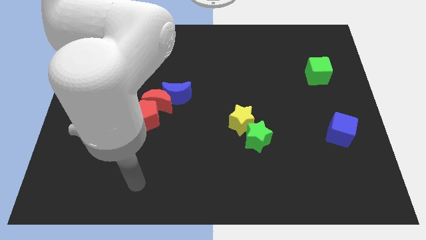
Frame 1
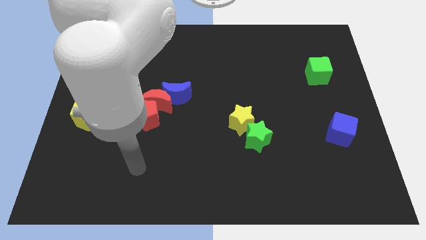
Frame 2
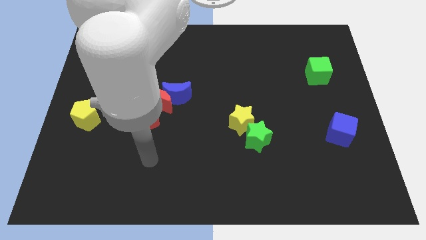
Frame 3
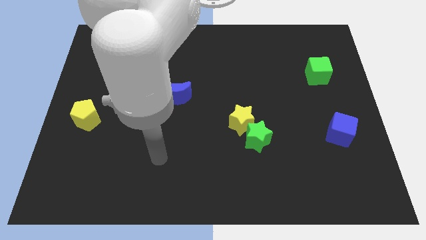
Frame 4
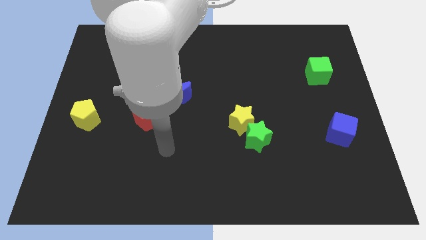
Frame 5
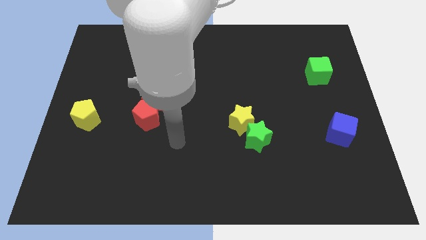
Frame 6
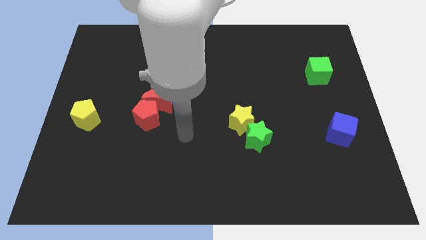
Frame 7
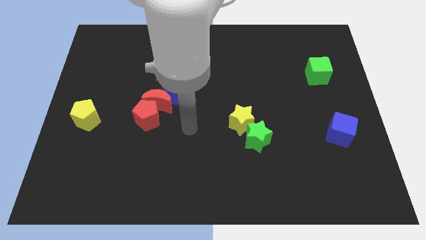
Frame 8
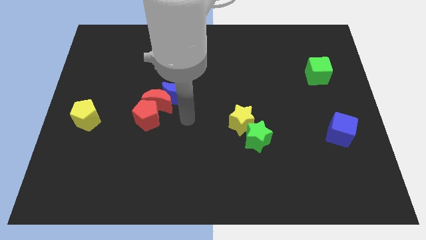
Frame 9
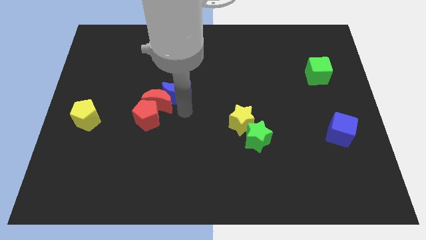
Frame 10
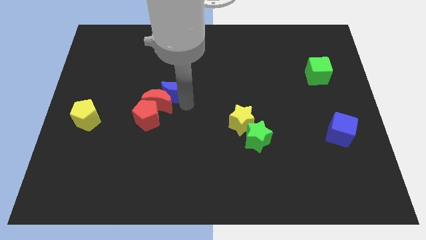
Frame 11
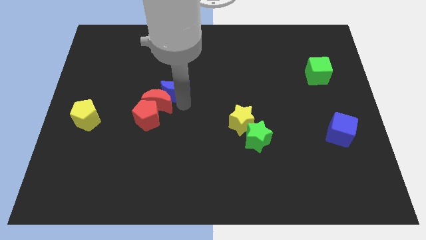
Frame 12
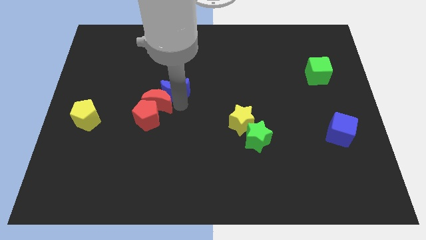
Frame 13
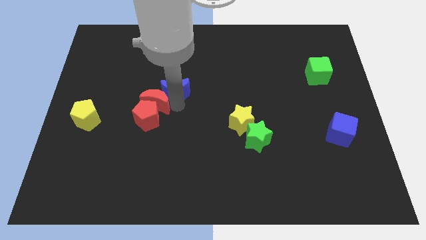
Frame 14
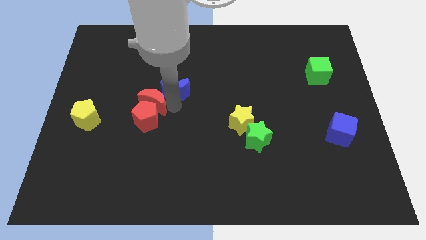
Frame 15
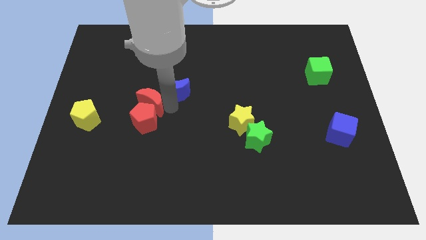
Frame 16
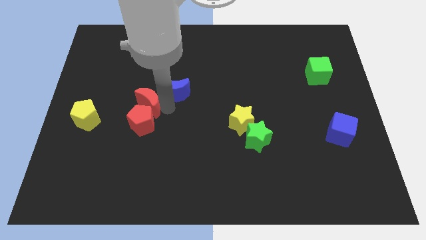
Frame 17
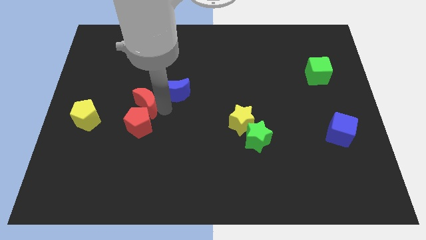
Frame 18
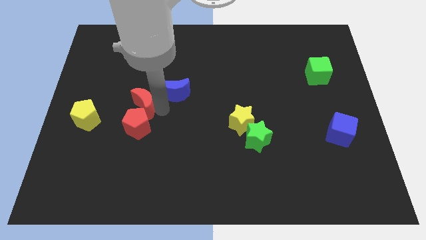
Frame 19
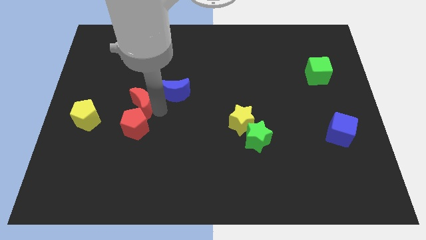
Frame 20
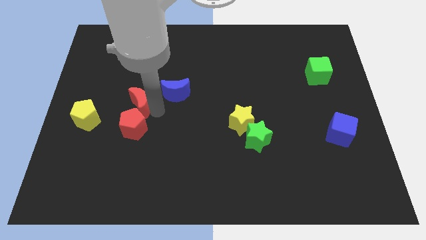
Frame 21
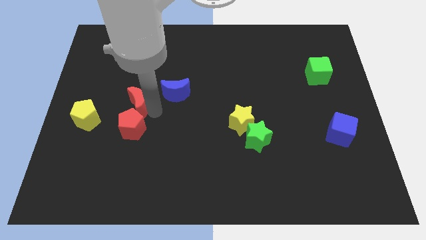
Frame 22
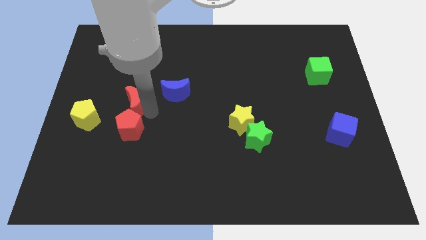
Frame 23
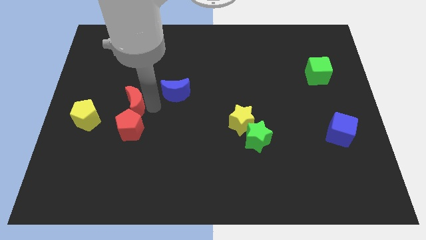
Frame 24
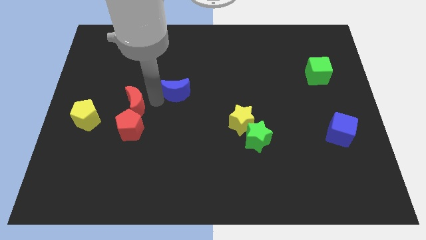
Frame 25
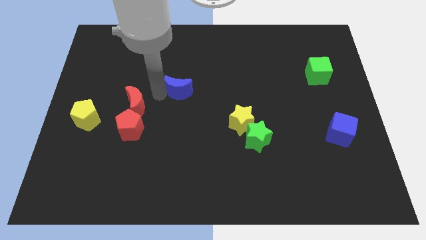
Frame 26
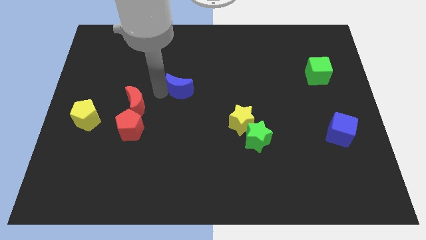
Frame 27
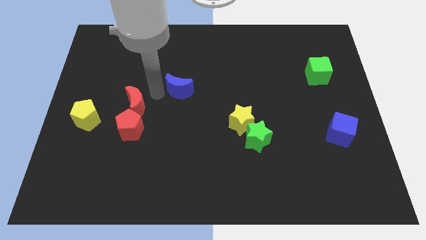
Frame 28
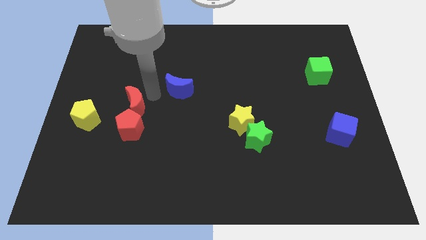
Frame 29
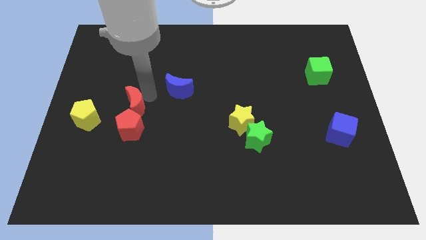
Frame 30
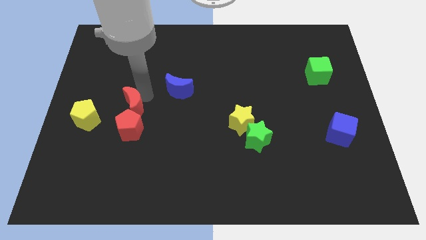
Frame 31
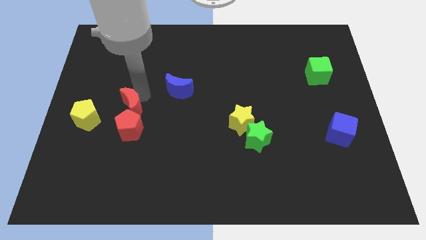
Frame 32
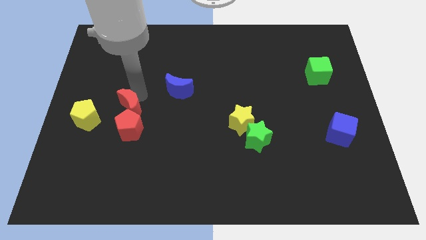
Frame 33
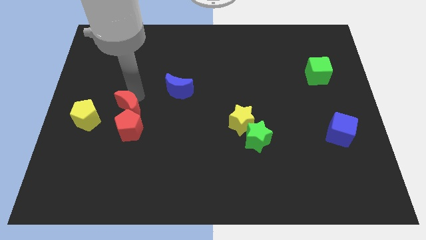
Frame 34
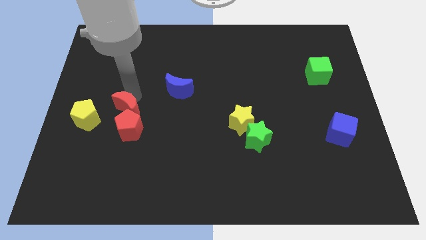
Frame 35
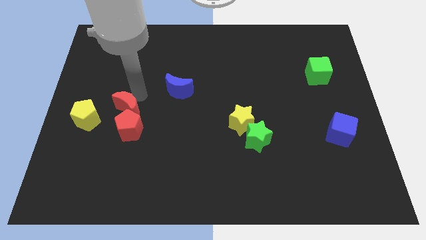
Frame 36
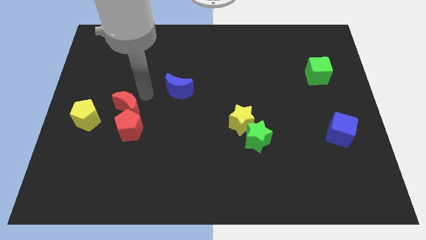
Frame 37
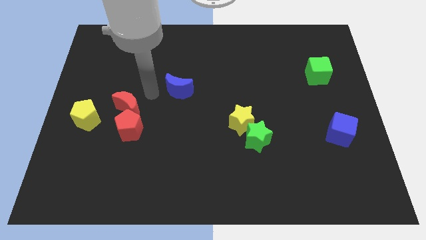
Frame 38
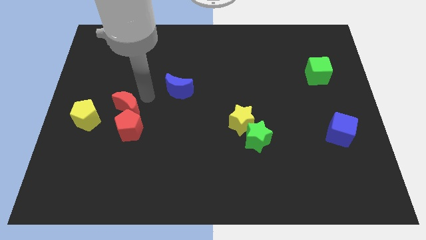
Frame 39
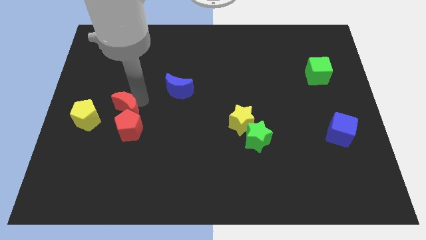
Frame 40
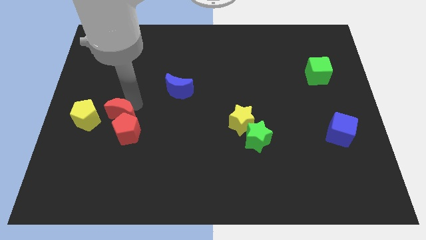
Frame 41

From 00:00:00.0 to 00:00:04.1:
slide the red moon a little bit down and then left

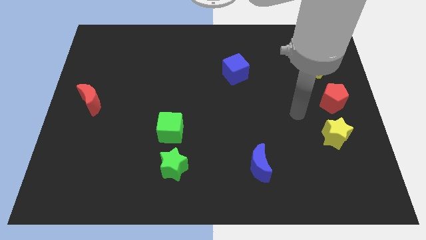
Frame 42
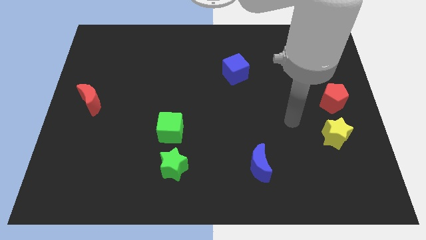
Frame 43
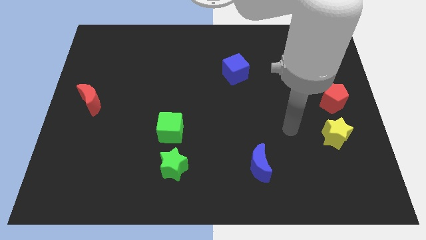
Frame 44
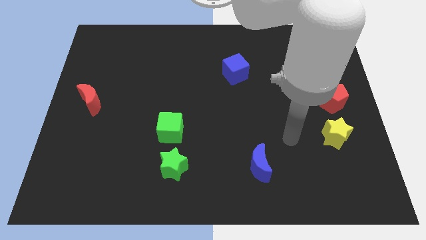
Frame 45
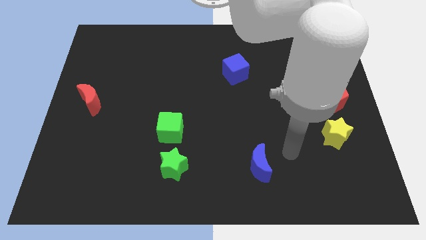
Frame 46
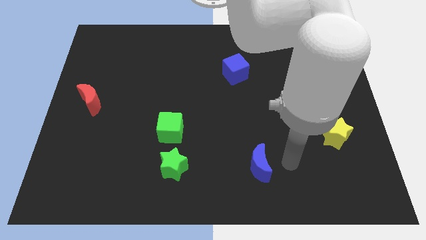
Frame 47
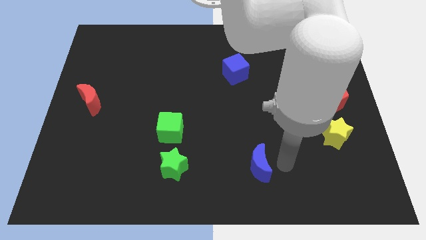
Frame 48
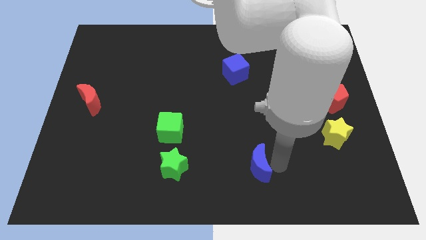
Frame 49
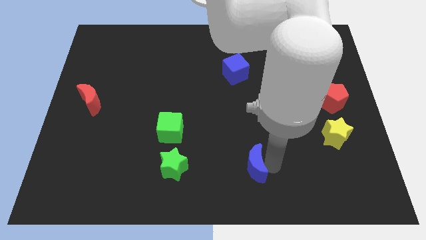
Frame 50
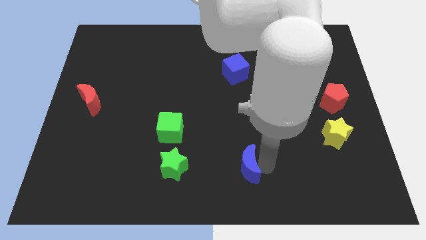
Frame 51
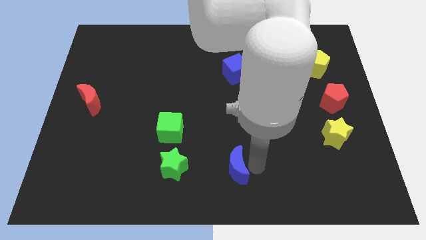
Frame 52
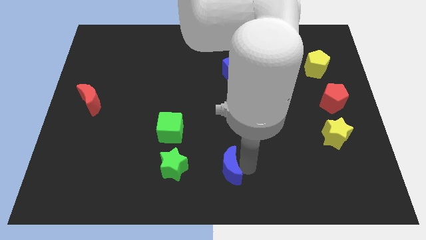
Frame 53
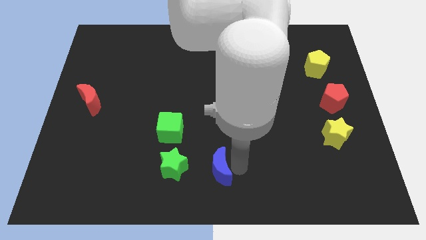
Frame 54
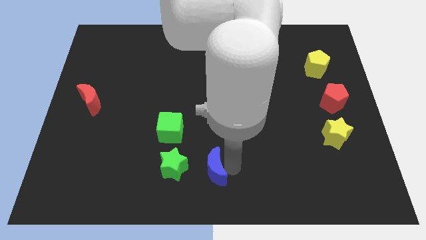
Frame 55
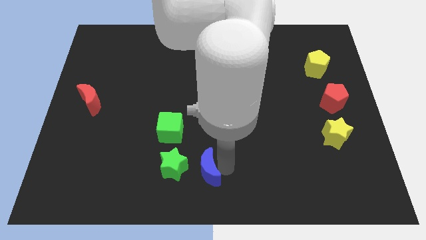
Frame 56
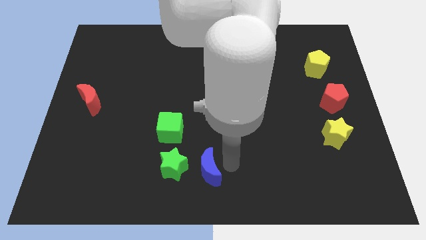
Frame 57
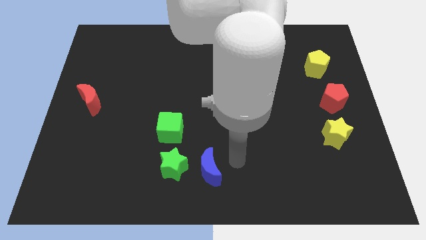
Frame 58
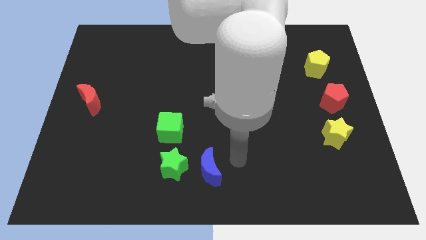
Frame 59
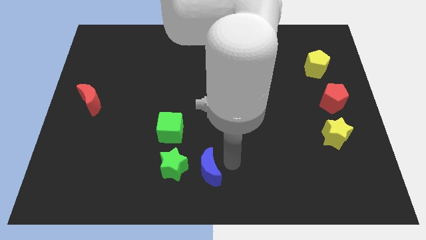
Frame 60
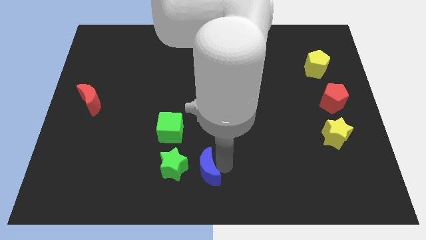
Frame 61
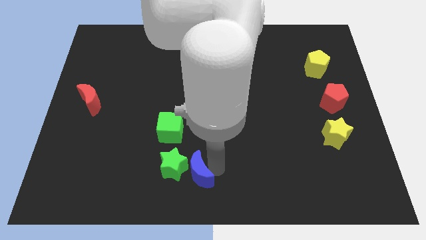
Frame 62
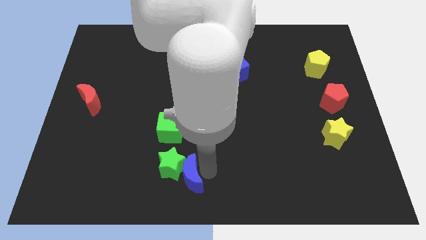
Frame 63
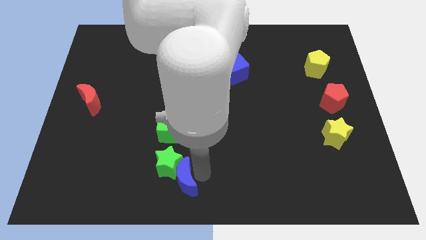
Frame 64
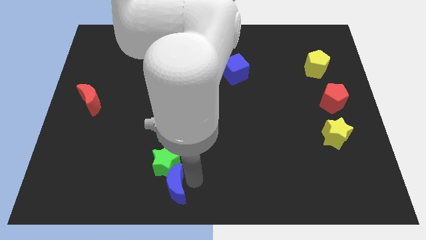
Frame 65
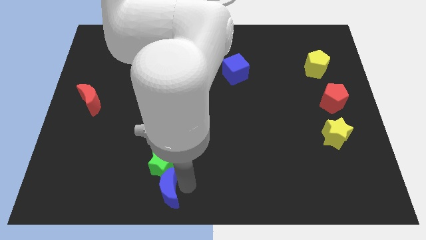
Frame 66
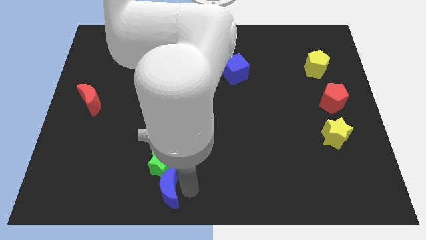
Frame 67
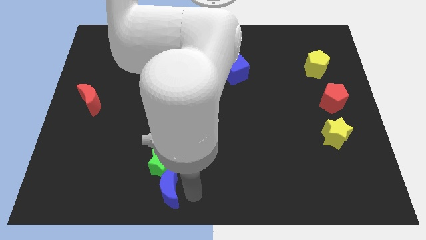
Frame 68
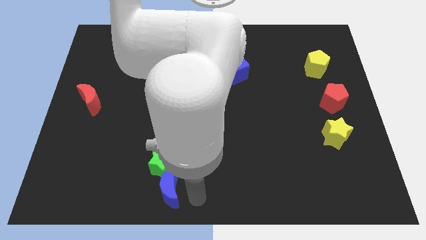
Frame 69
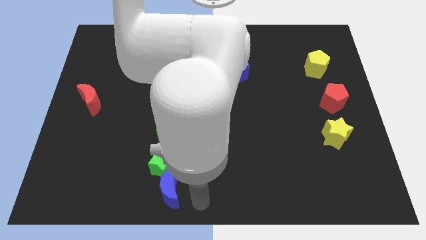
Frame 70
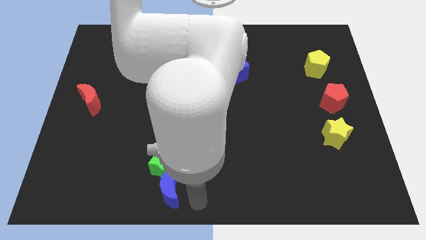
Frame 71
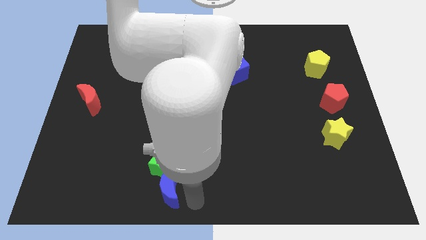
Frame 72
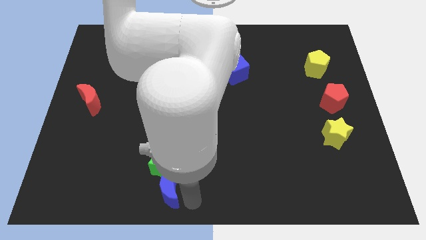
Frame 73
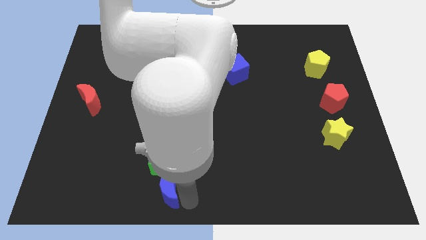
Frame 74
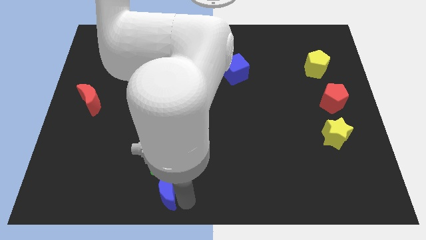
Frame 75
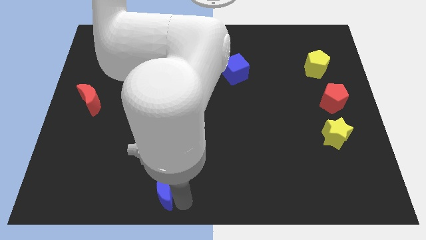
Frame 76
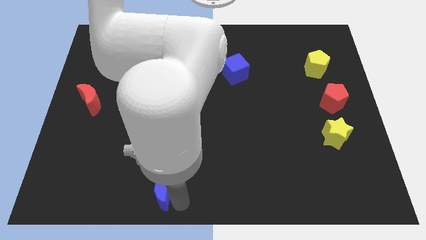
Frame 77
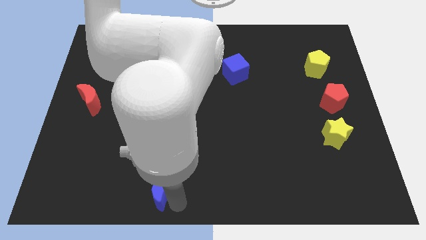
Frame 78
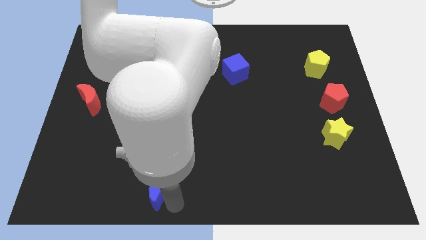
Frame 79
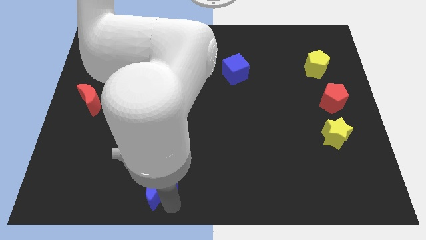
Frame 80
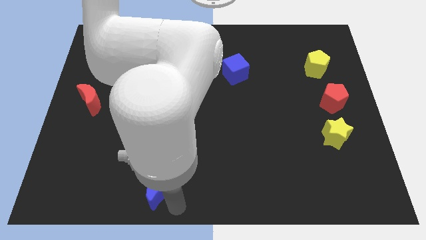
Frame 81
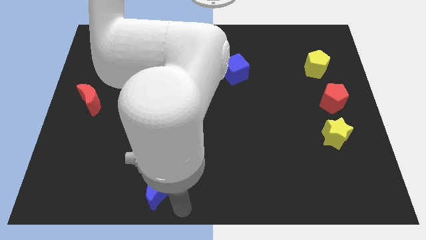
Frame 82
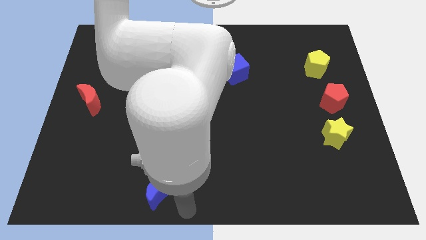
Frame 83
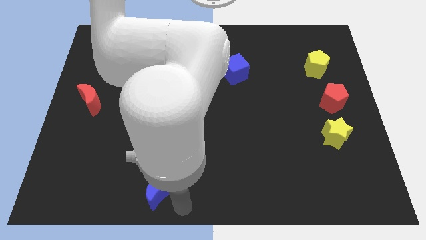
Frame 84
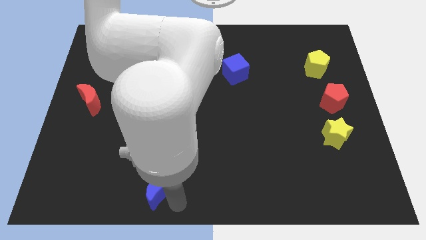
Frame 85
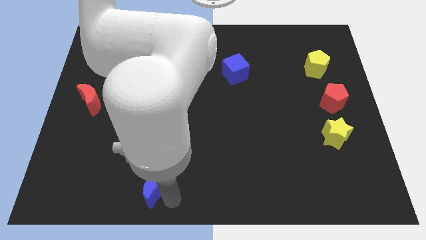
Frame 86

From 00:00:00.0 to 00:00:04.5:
push the blue moon left
